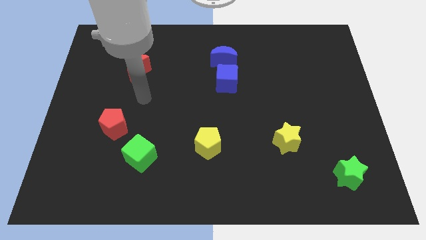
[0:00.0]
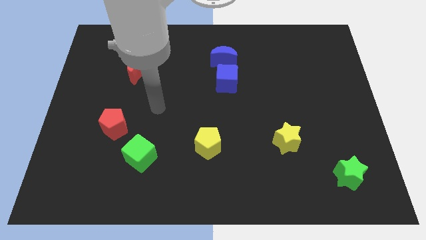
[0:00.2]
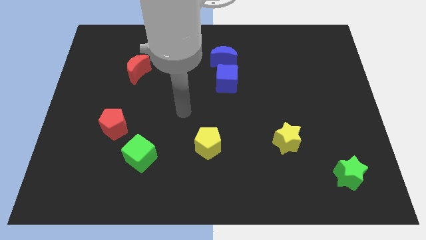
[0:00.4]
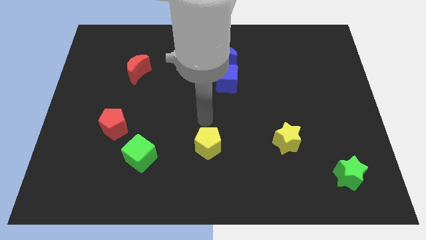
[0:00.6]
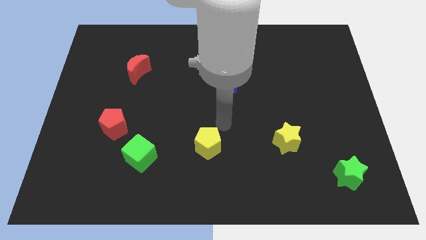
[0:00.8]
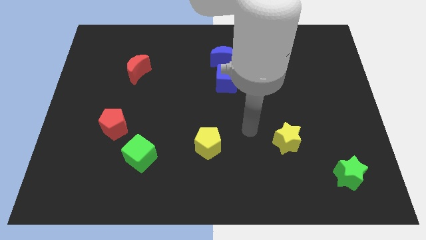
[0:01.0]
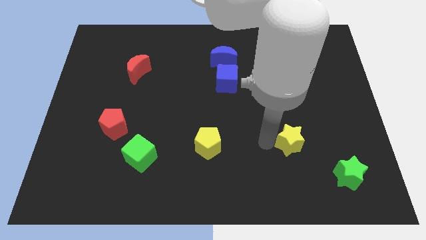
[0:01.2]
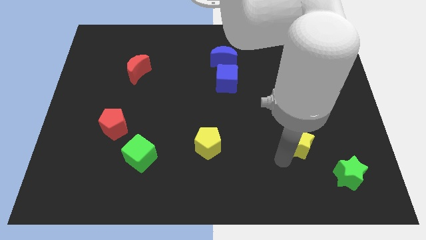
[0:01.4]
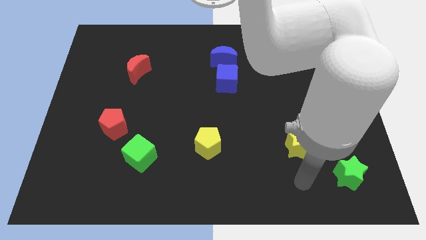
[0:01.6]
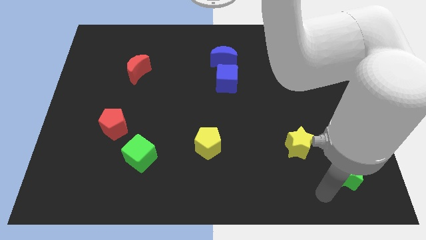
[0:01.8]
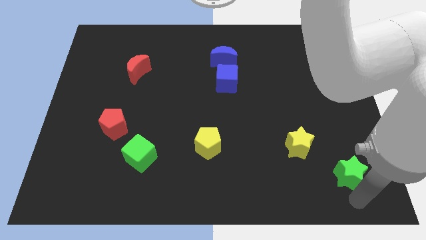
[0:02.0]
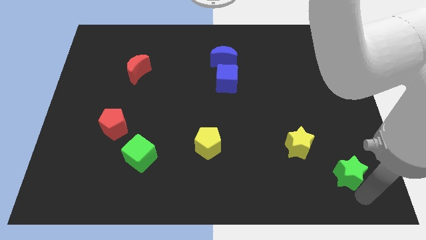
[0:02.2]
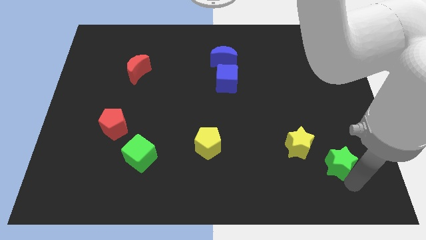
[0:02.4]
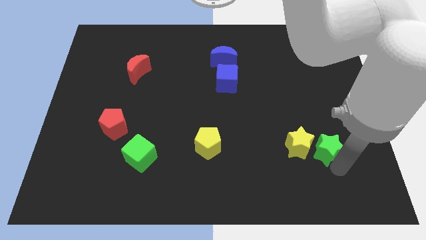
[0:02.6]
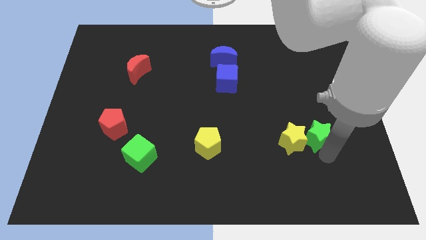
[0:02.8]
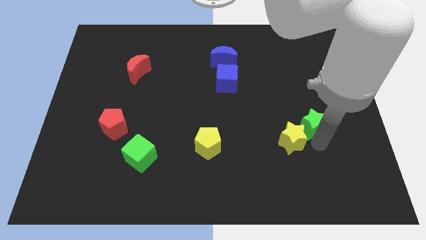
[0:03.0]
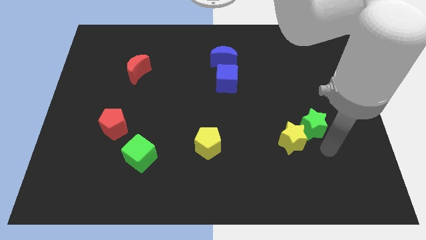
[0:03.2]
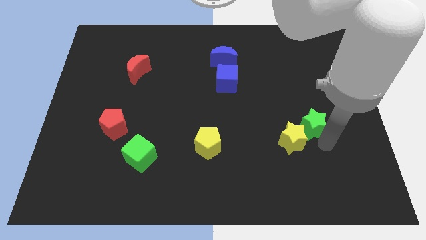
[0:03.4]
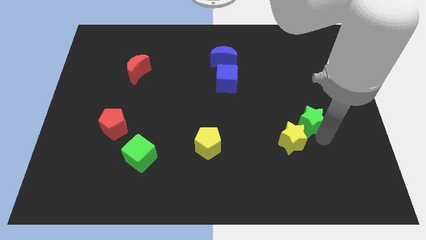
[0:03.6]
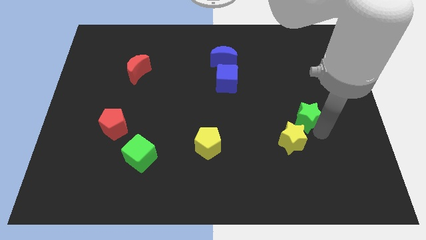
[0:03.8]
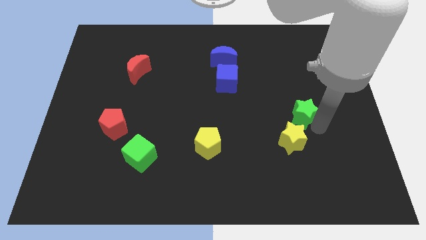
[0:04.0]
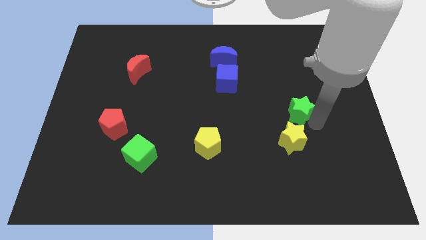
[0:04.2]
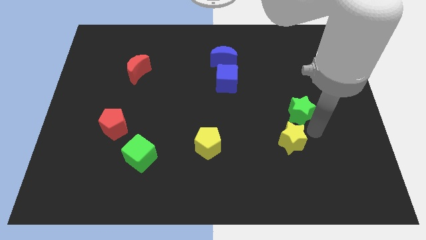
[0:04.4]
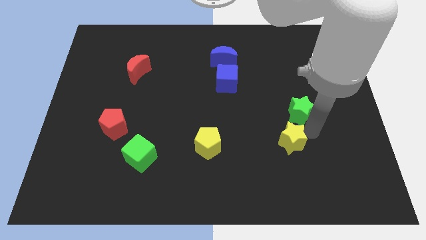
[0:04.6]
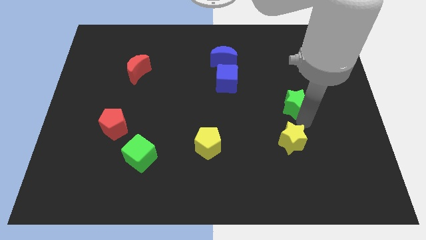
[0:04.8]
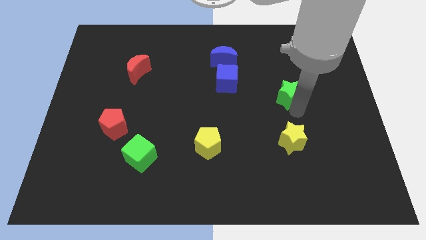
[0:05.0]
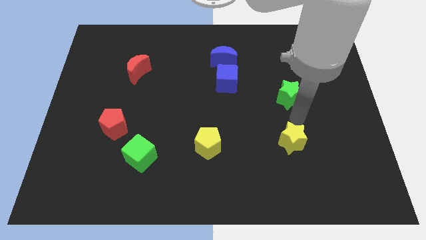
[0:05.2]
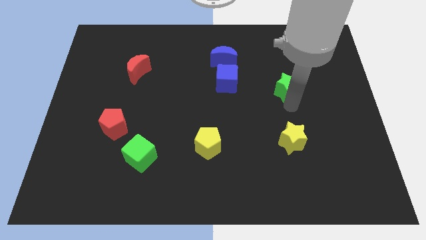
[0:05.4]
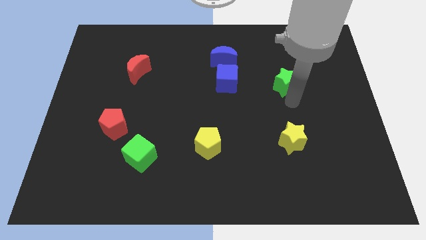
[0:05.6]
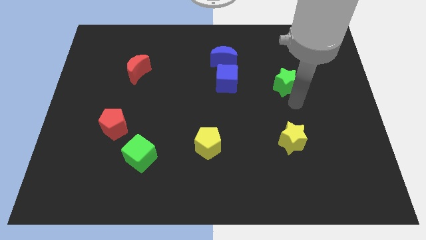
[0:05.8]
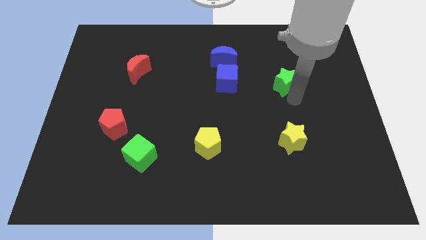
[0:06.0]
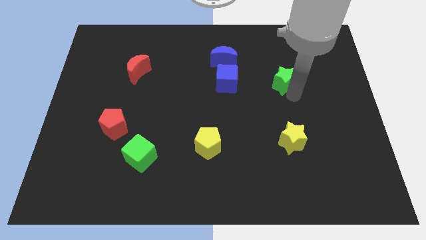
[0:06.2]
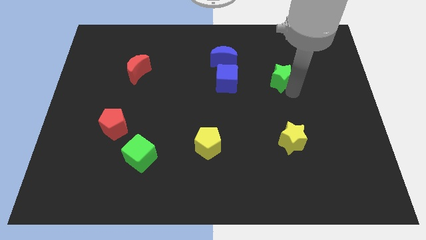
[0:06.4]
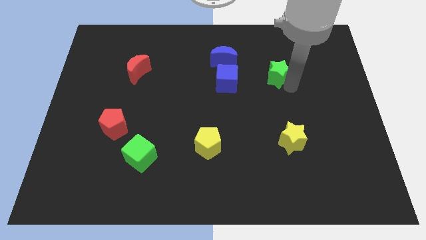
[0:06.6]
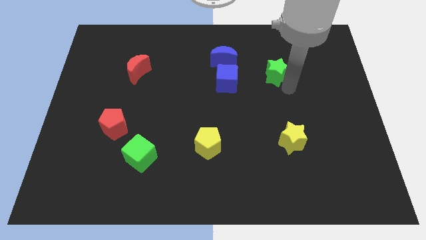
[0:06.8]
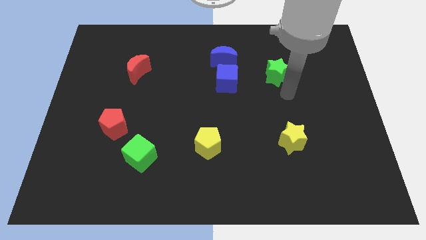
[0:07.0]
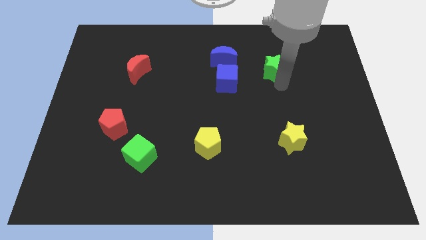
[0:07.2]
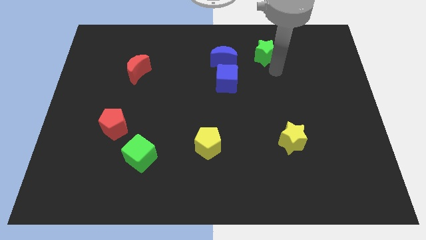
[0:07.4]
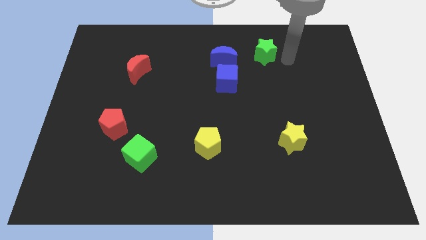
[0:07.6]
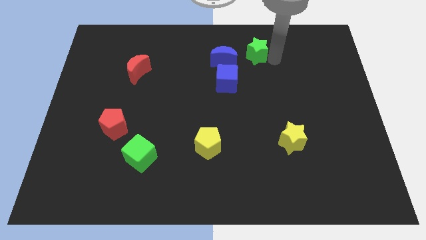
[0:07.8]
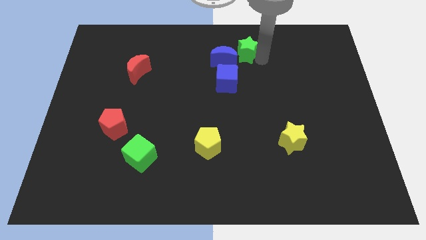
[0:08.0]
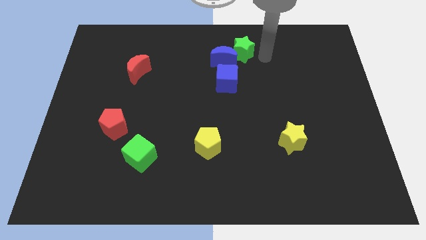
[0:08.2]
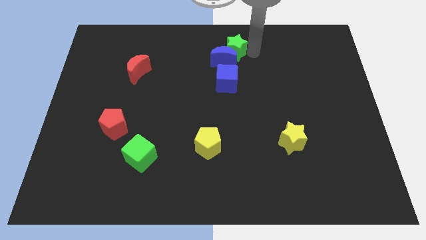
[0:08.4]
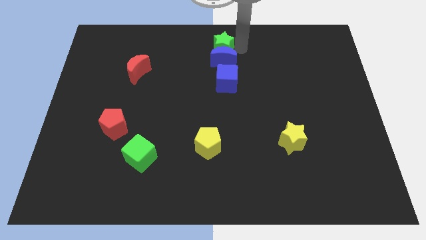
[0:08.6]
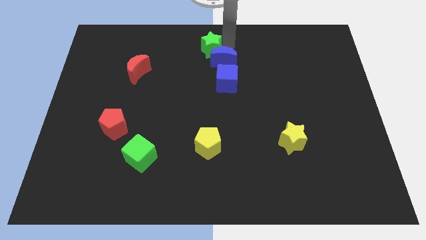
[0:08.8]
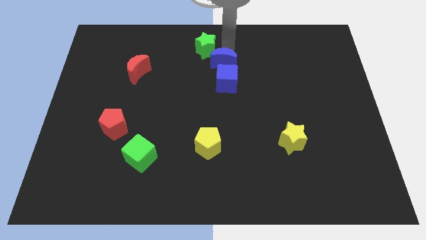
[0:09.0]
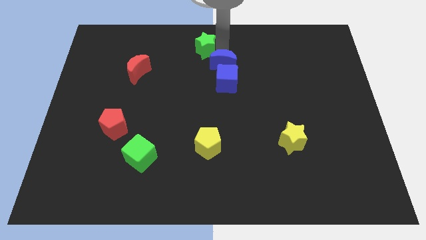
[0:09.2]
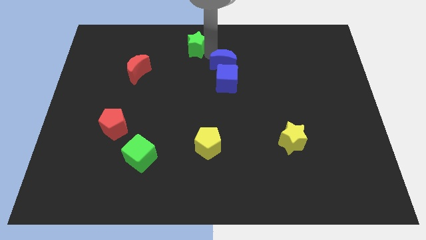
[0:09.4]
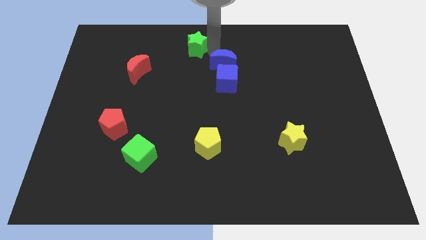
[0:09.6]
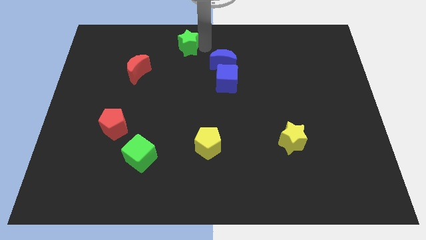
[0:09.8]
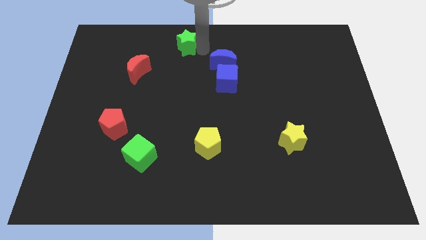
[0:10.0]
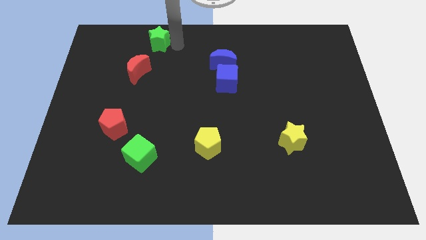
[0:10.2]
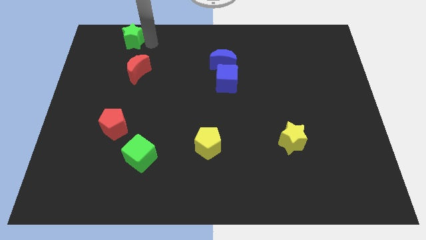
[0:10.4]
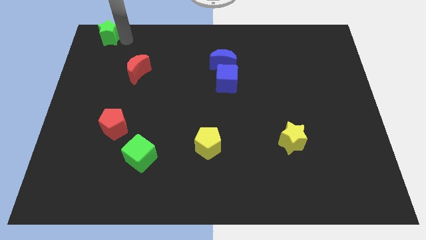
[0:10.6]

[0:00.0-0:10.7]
slide the green star to the top left

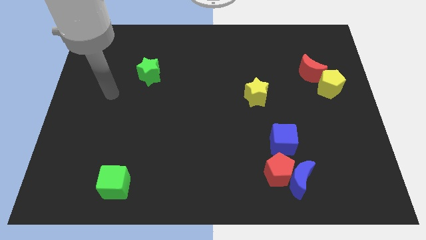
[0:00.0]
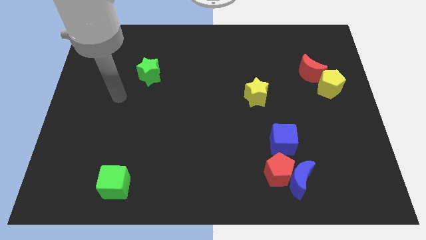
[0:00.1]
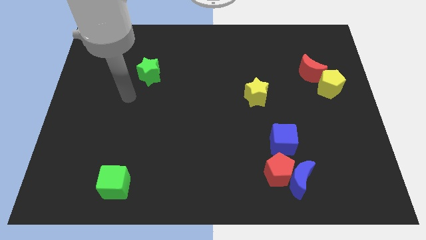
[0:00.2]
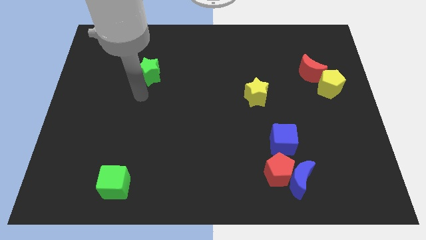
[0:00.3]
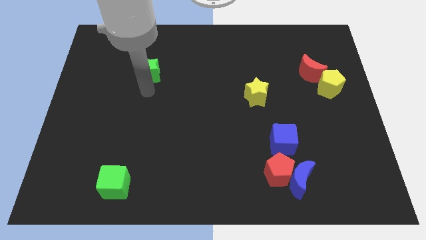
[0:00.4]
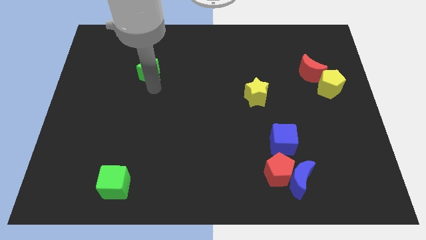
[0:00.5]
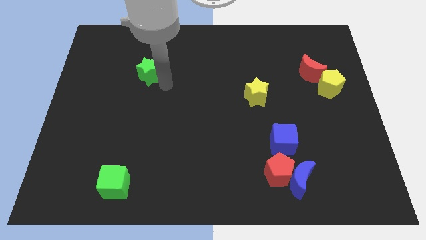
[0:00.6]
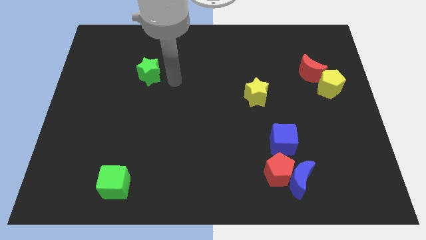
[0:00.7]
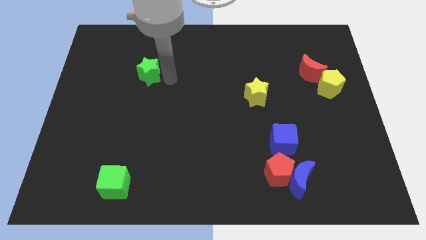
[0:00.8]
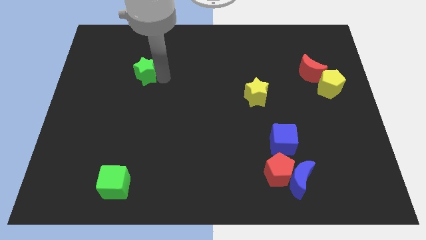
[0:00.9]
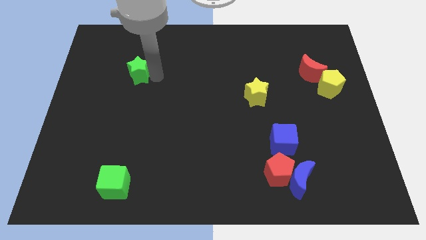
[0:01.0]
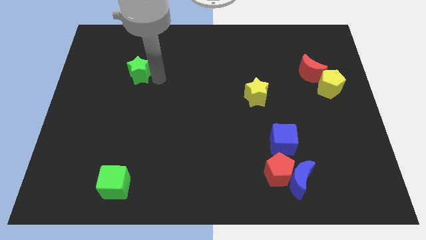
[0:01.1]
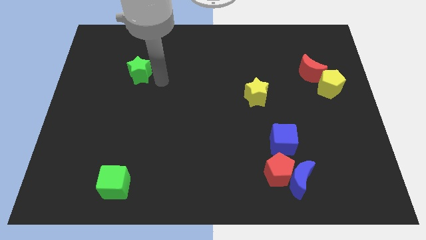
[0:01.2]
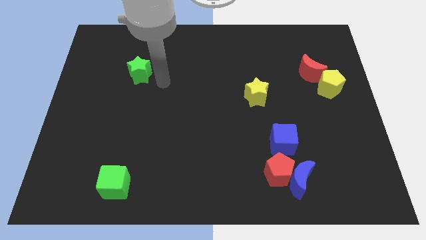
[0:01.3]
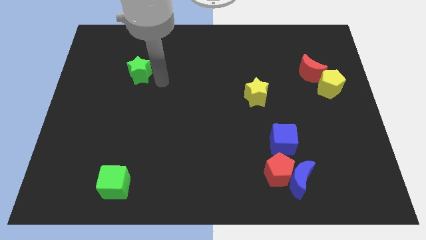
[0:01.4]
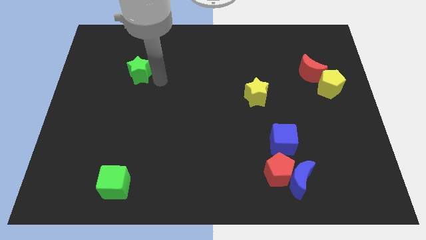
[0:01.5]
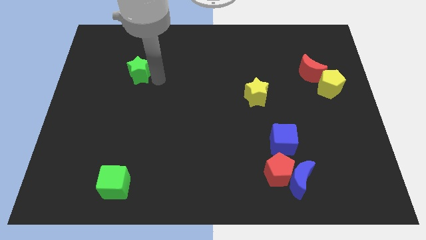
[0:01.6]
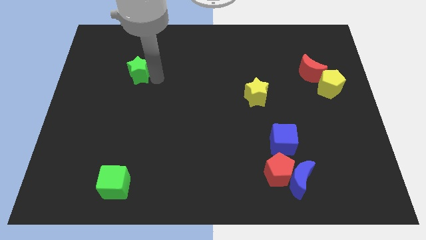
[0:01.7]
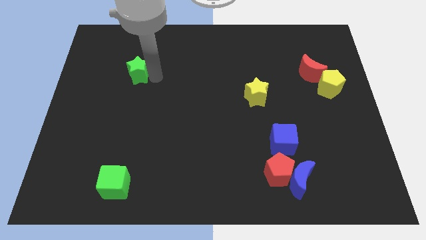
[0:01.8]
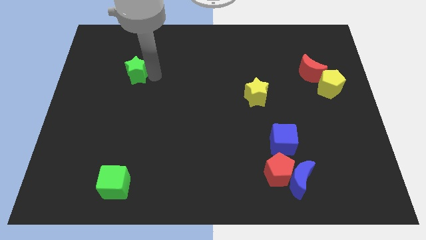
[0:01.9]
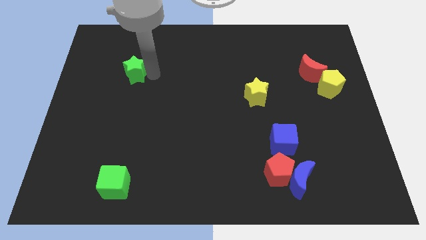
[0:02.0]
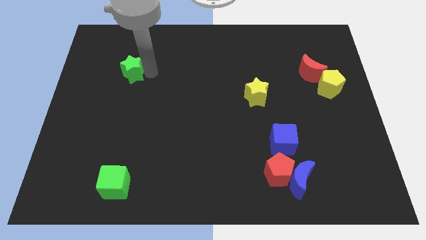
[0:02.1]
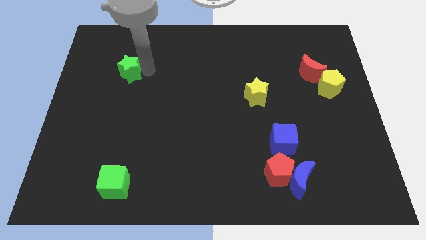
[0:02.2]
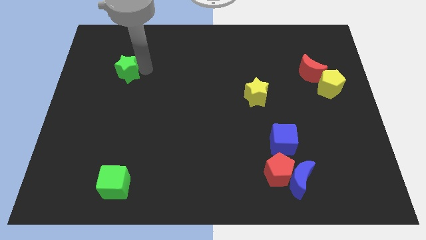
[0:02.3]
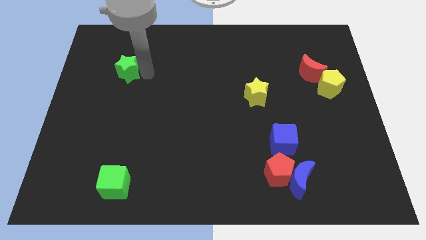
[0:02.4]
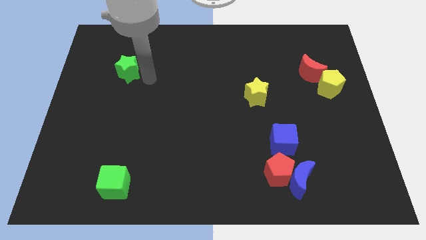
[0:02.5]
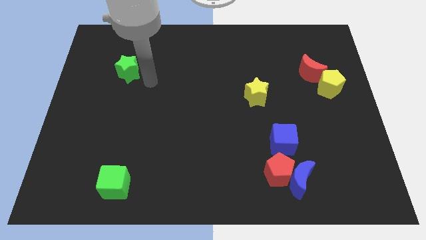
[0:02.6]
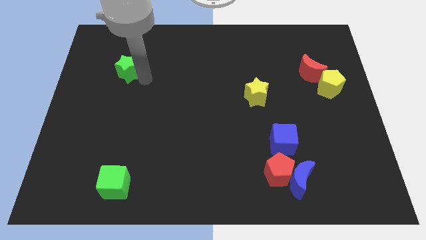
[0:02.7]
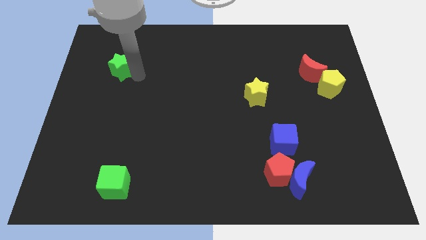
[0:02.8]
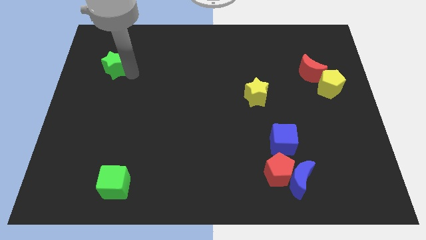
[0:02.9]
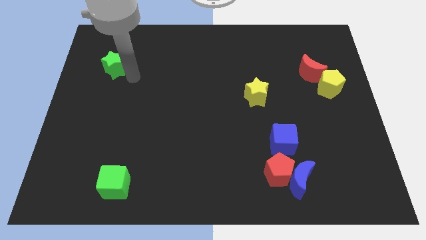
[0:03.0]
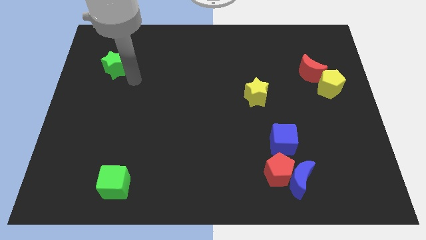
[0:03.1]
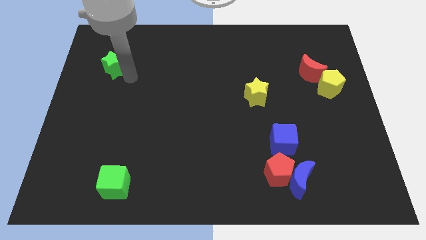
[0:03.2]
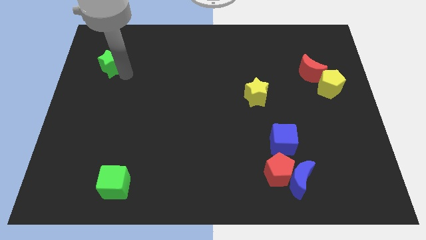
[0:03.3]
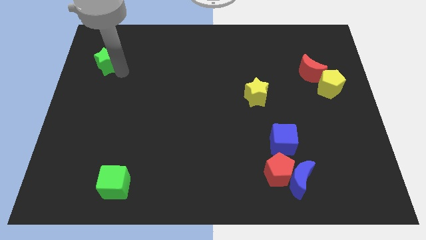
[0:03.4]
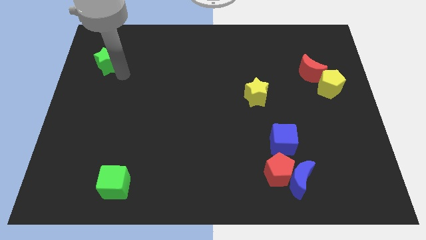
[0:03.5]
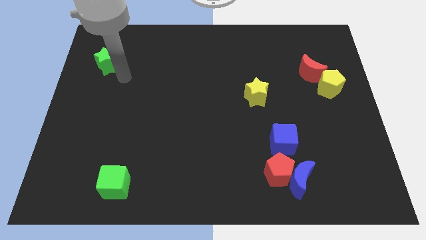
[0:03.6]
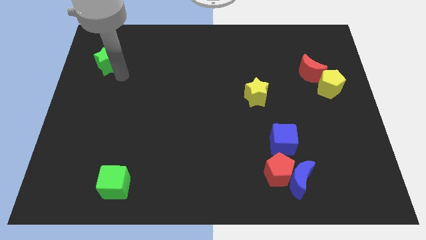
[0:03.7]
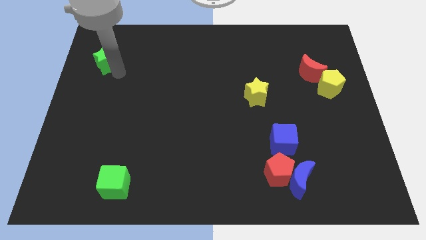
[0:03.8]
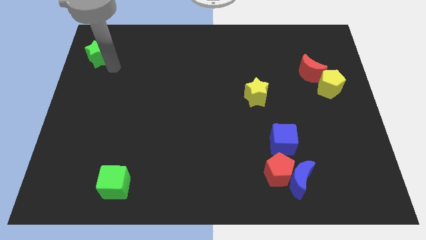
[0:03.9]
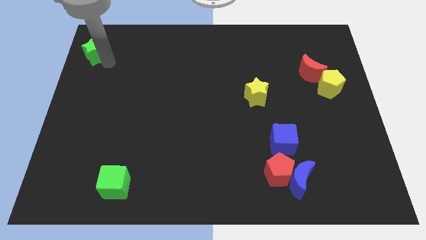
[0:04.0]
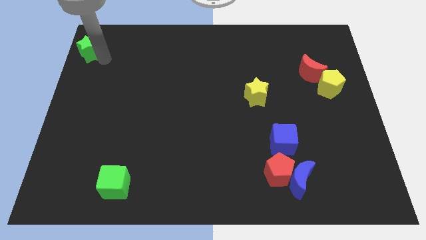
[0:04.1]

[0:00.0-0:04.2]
push the green star to the top left
